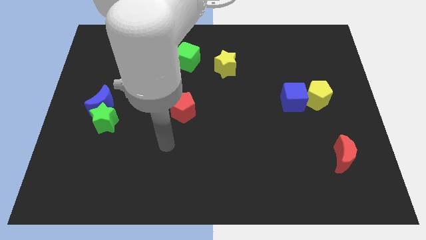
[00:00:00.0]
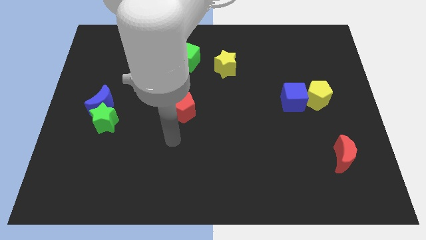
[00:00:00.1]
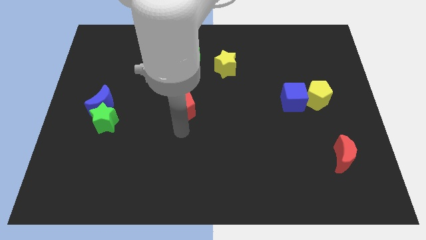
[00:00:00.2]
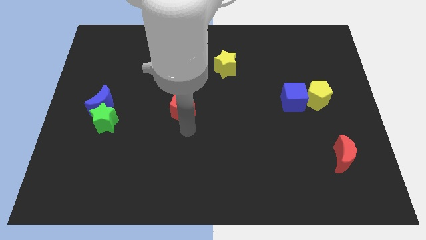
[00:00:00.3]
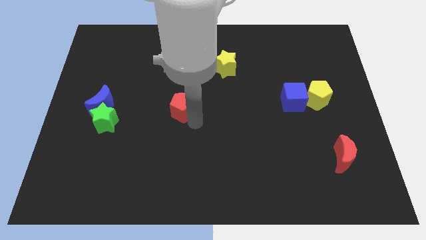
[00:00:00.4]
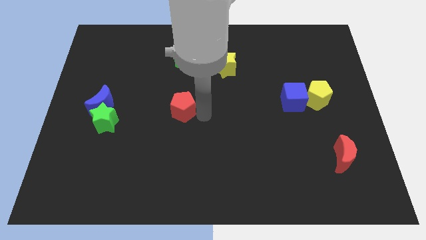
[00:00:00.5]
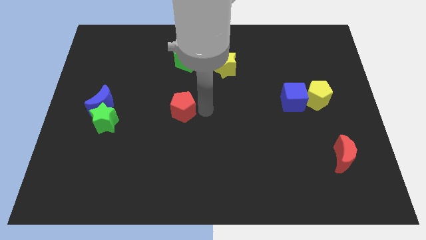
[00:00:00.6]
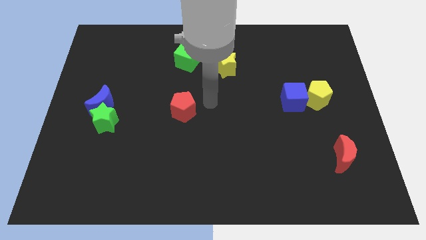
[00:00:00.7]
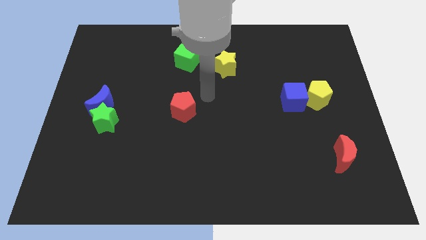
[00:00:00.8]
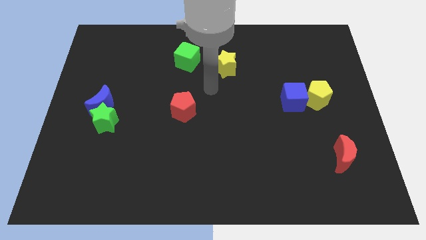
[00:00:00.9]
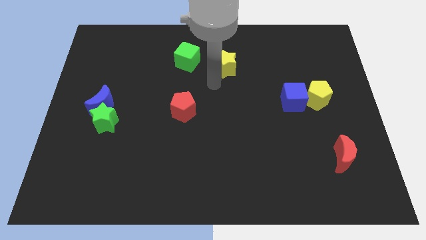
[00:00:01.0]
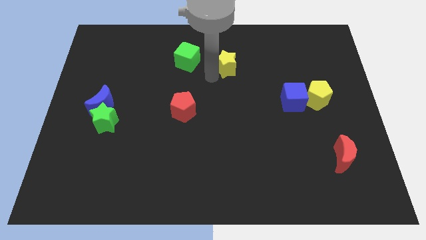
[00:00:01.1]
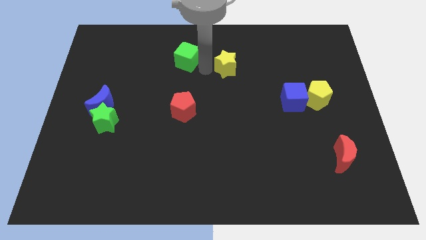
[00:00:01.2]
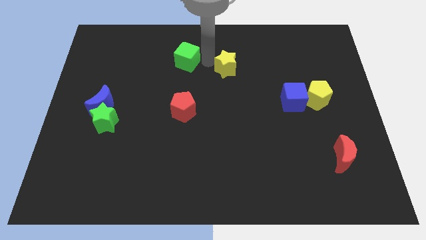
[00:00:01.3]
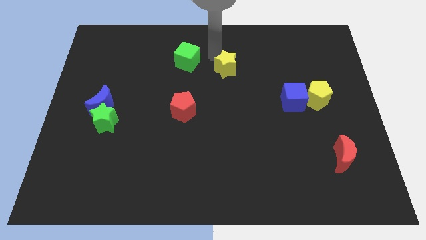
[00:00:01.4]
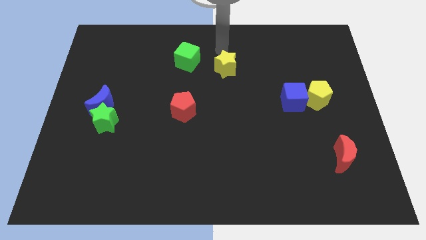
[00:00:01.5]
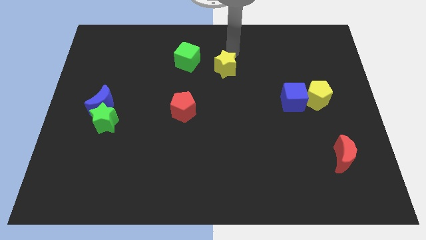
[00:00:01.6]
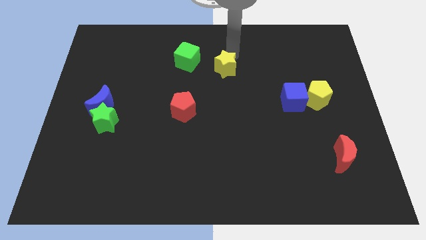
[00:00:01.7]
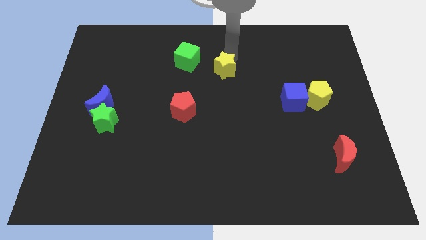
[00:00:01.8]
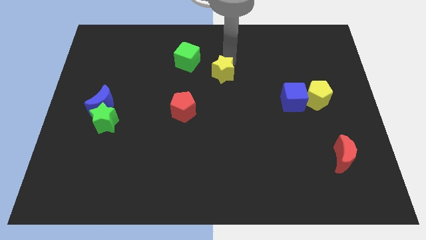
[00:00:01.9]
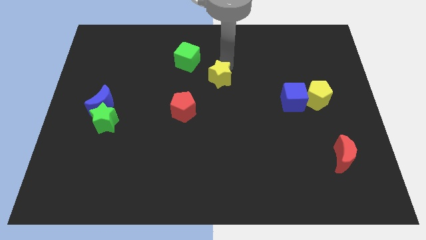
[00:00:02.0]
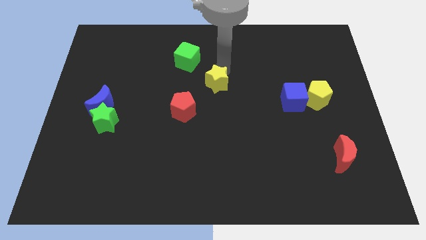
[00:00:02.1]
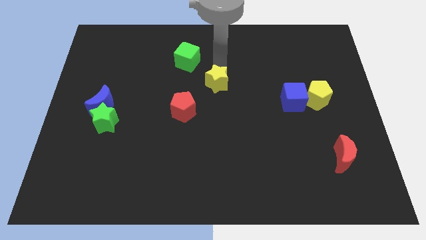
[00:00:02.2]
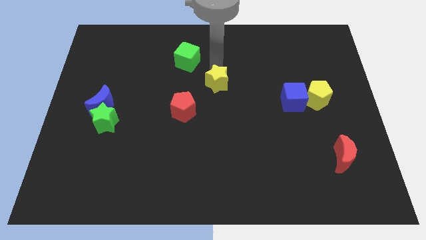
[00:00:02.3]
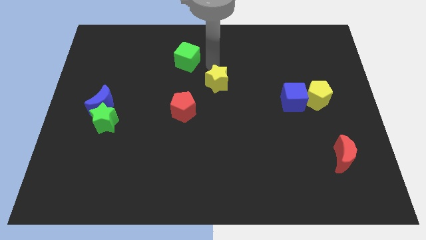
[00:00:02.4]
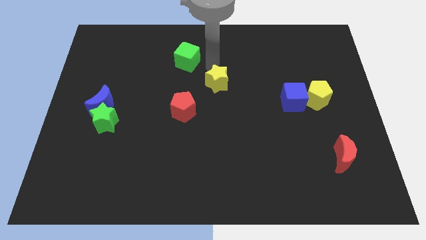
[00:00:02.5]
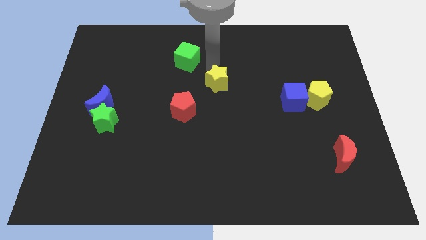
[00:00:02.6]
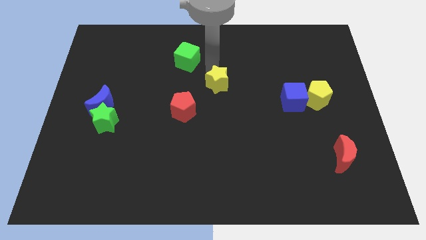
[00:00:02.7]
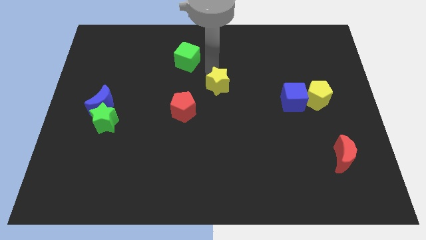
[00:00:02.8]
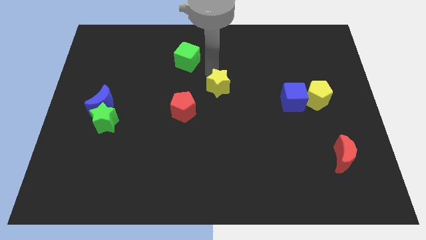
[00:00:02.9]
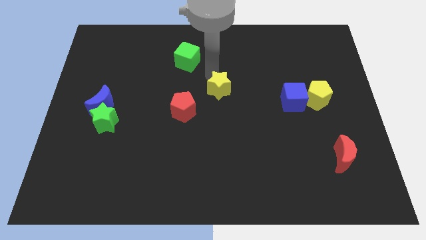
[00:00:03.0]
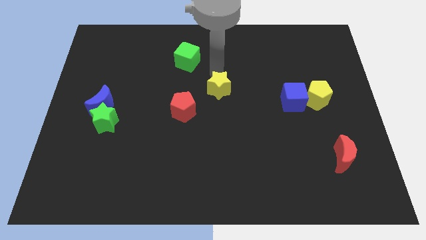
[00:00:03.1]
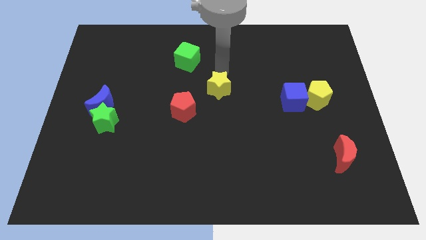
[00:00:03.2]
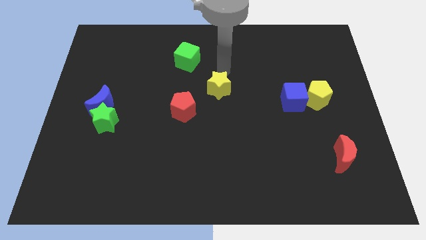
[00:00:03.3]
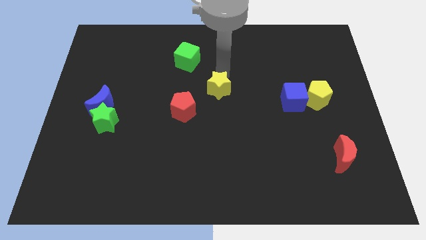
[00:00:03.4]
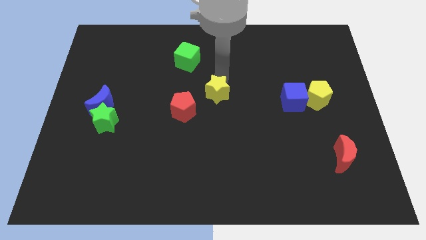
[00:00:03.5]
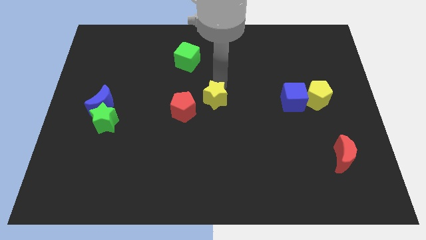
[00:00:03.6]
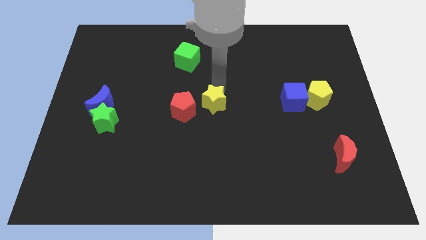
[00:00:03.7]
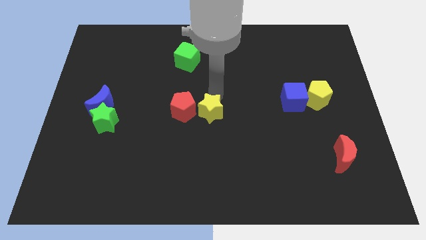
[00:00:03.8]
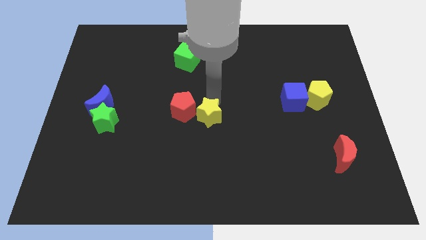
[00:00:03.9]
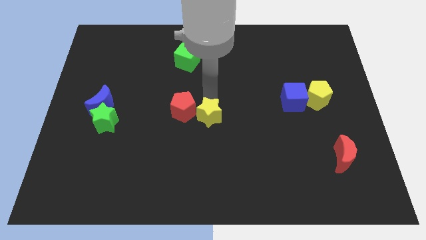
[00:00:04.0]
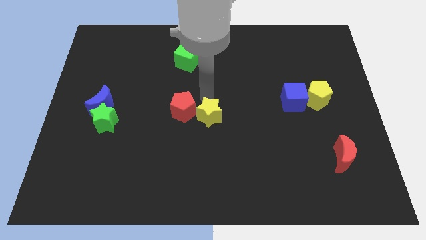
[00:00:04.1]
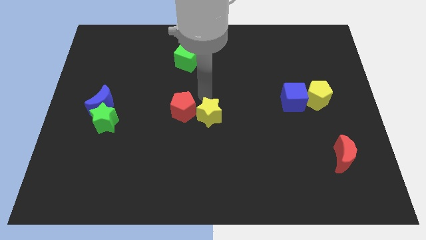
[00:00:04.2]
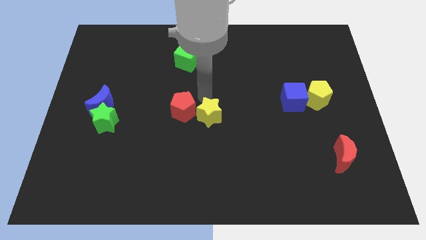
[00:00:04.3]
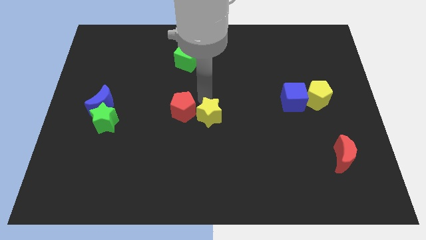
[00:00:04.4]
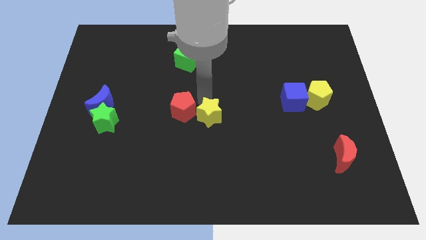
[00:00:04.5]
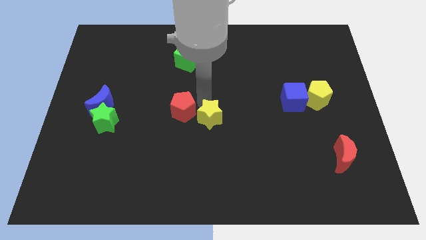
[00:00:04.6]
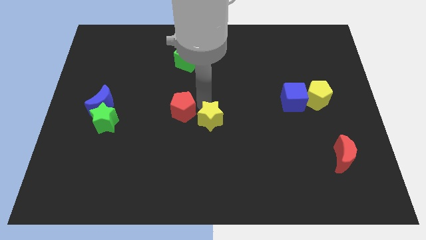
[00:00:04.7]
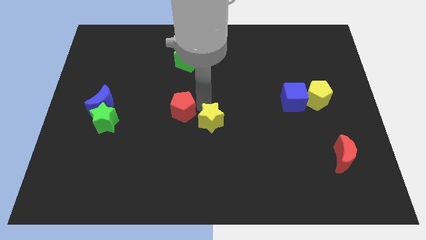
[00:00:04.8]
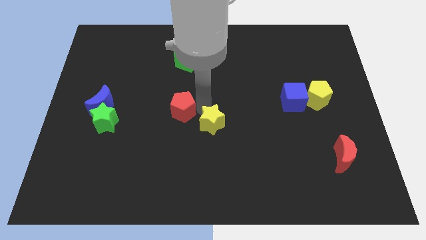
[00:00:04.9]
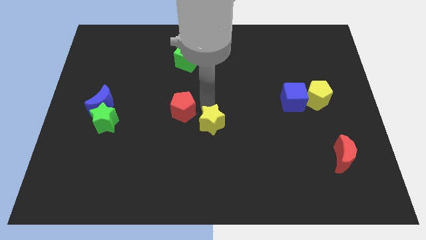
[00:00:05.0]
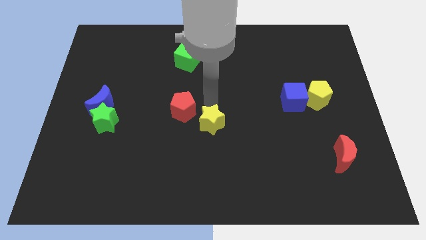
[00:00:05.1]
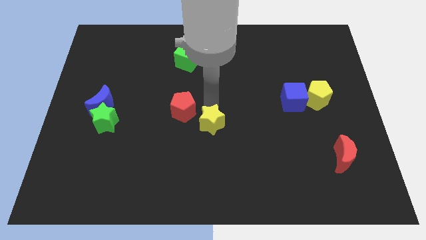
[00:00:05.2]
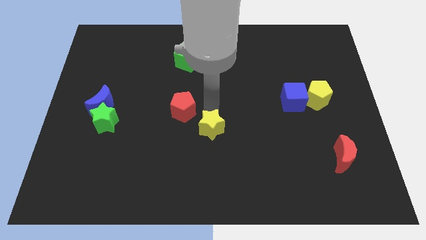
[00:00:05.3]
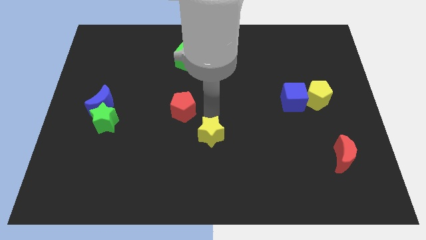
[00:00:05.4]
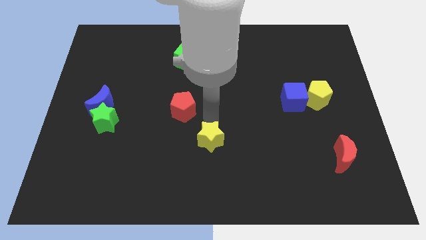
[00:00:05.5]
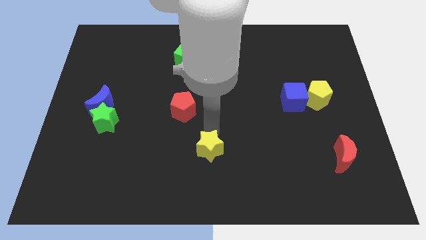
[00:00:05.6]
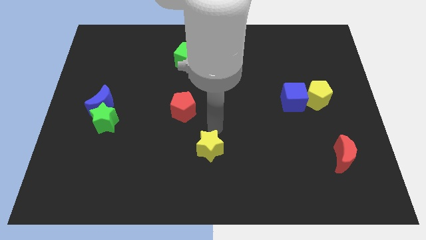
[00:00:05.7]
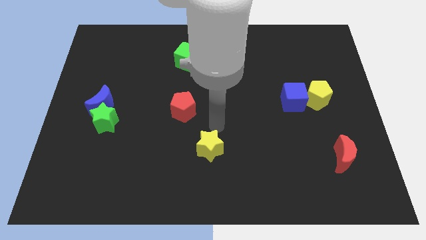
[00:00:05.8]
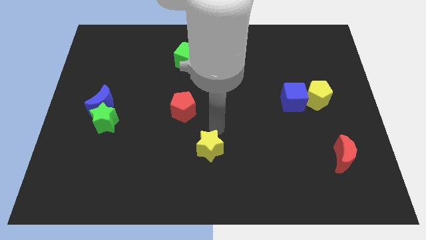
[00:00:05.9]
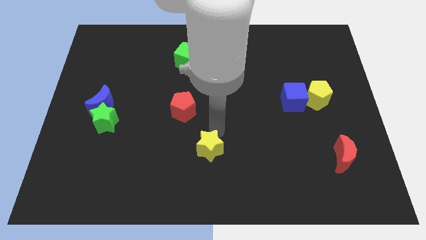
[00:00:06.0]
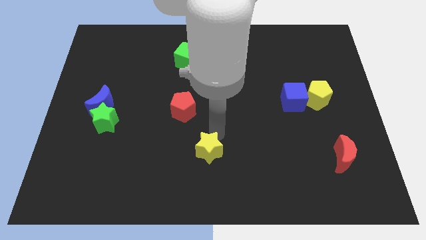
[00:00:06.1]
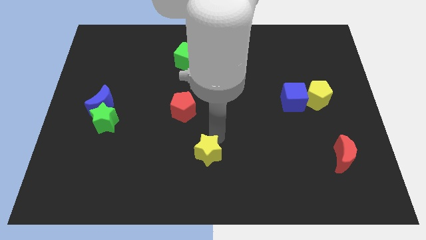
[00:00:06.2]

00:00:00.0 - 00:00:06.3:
put the yellow star to the bottom side
